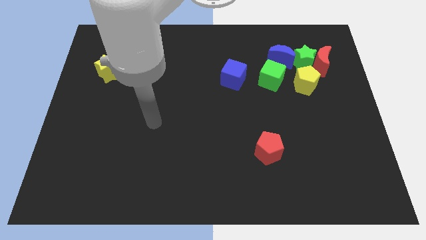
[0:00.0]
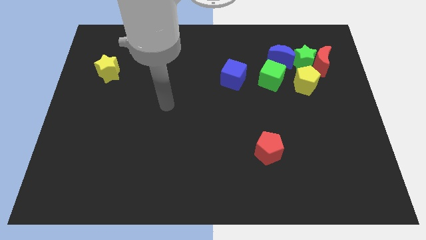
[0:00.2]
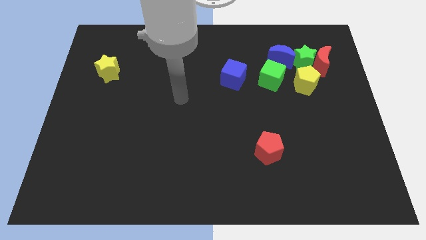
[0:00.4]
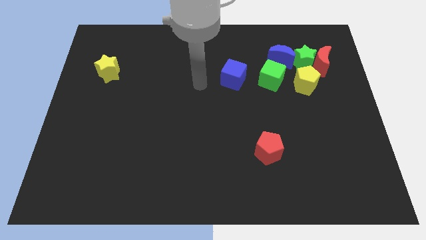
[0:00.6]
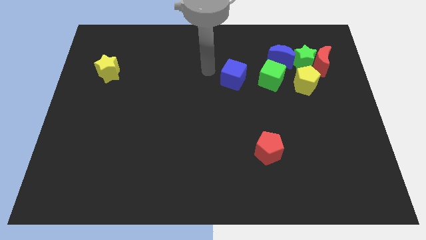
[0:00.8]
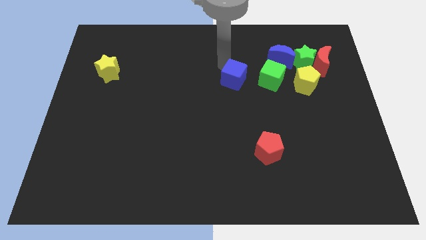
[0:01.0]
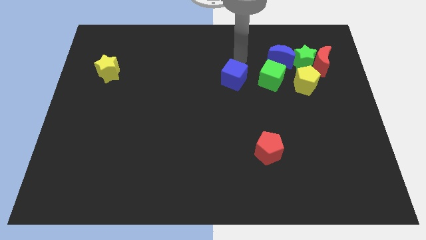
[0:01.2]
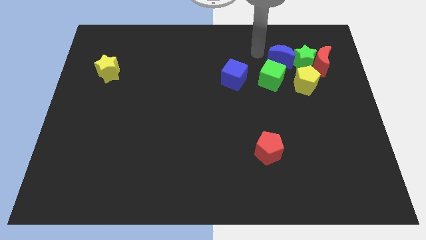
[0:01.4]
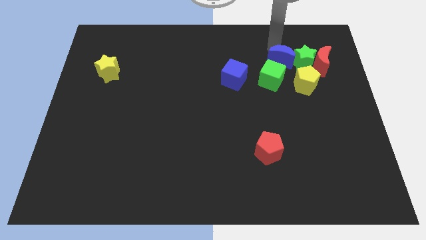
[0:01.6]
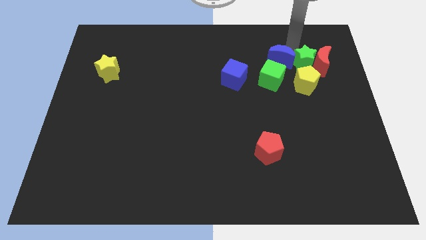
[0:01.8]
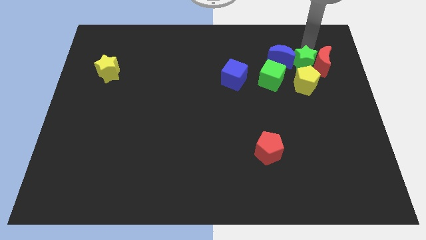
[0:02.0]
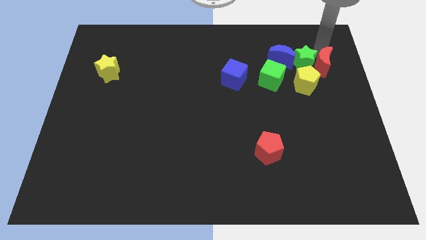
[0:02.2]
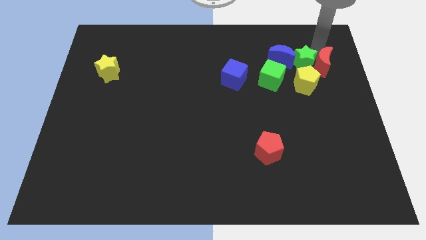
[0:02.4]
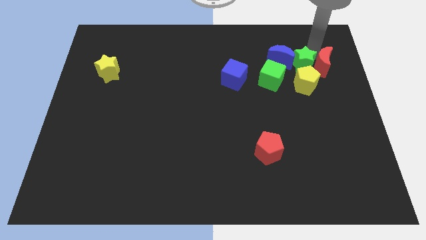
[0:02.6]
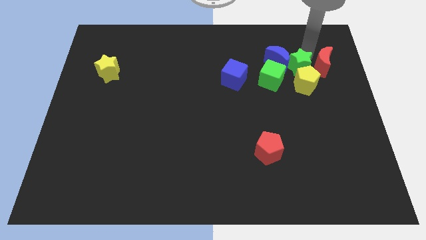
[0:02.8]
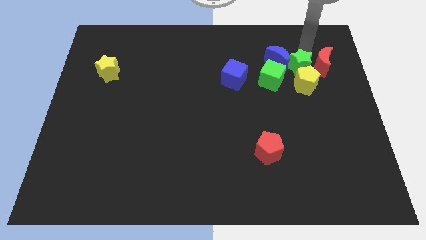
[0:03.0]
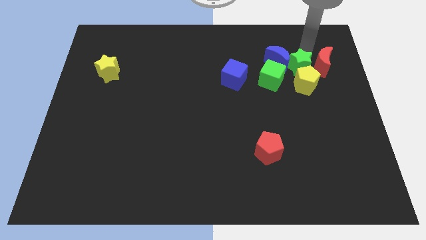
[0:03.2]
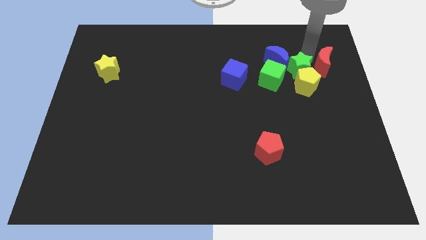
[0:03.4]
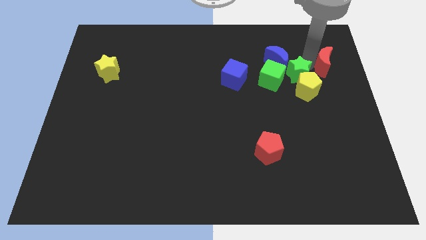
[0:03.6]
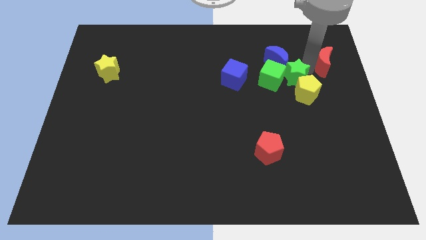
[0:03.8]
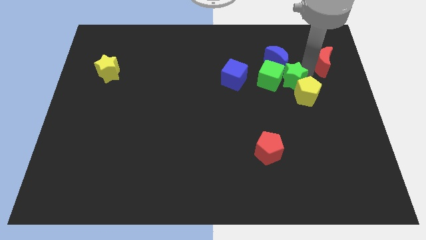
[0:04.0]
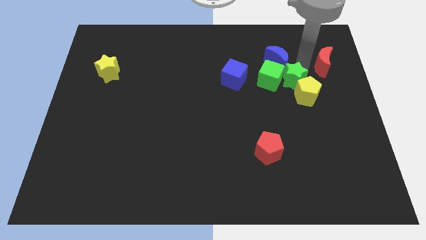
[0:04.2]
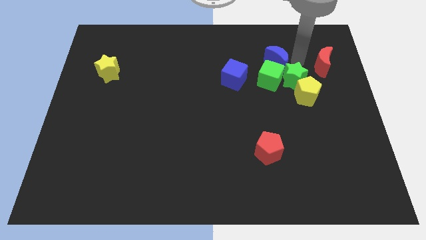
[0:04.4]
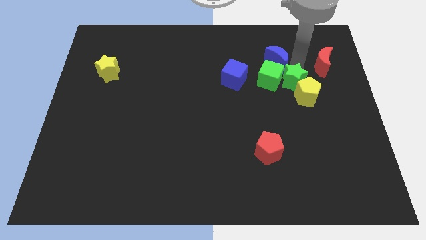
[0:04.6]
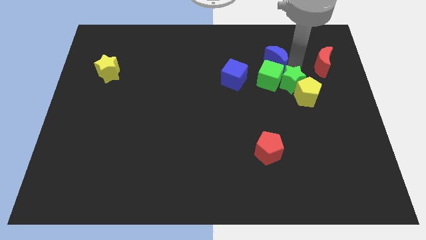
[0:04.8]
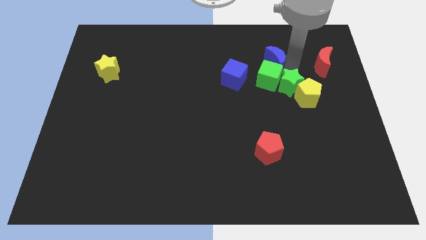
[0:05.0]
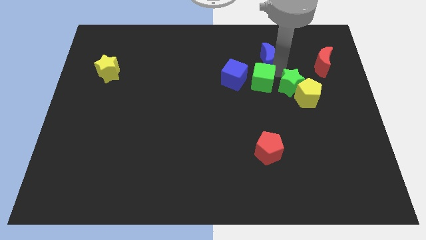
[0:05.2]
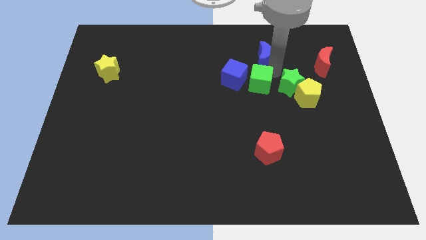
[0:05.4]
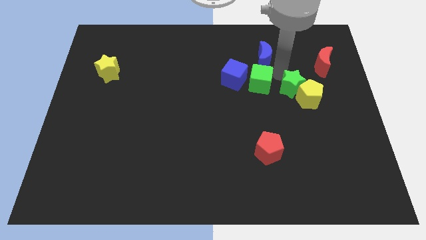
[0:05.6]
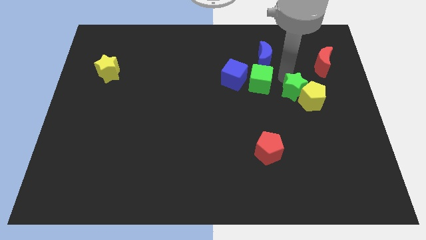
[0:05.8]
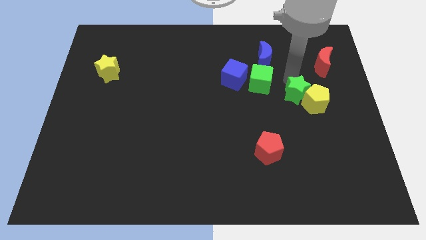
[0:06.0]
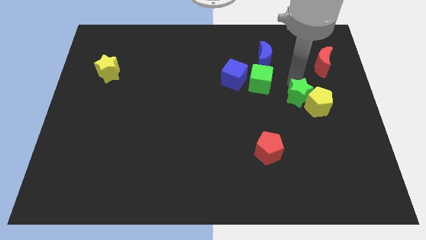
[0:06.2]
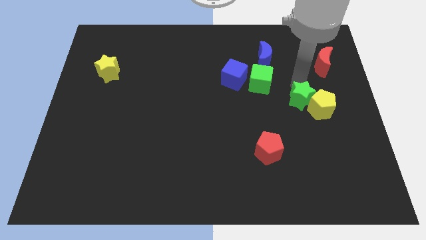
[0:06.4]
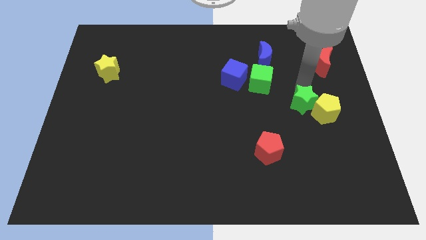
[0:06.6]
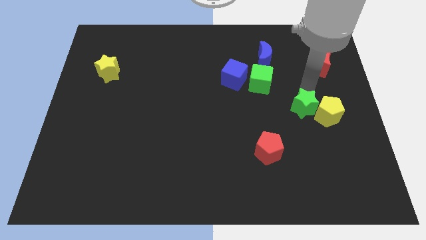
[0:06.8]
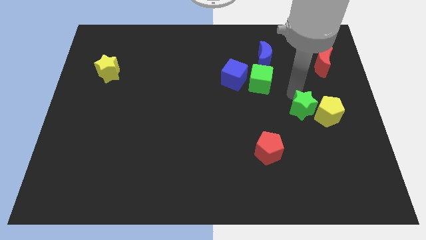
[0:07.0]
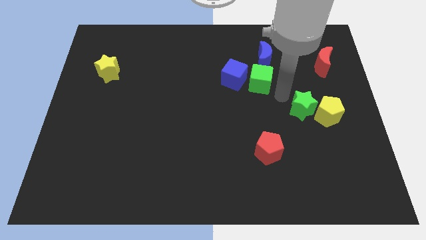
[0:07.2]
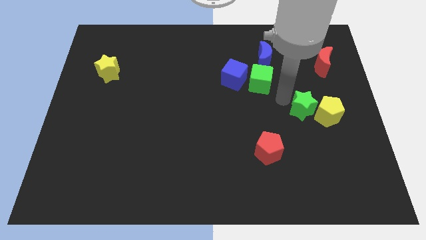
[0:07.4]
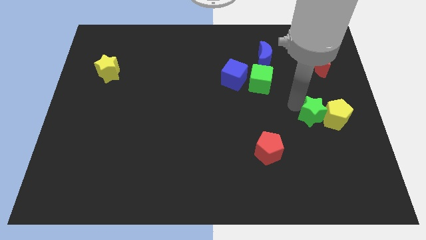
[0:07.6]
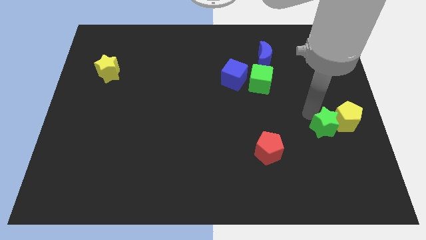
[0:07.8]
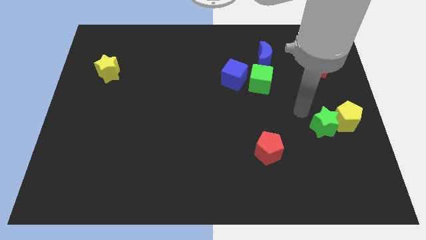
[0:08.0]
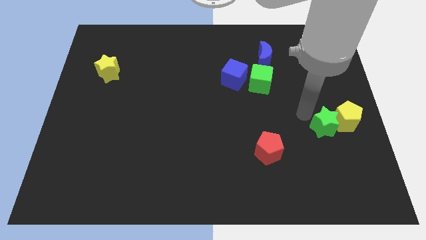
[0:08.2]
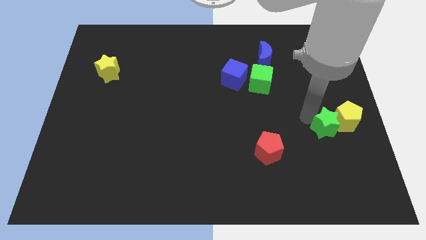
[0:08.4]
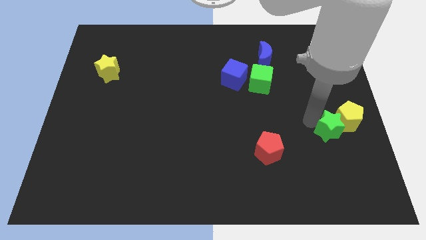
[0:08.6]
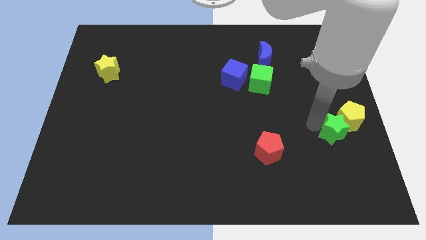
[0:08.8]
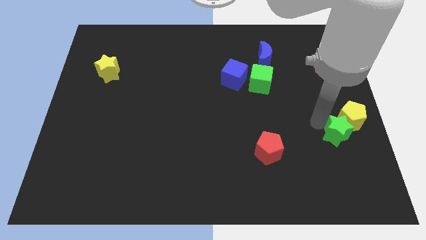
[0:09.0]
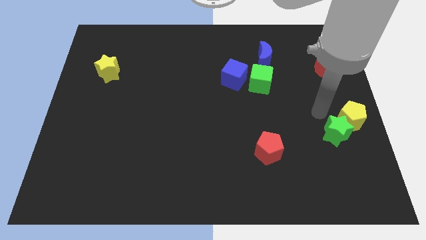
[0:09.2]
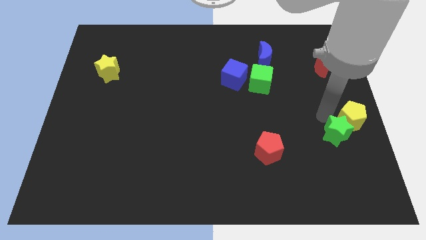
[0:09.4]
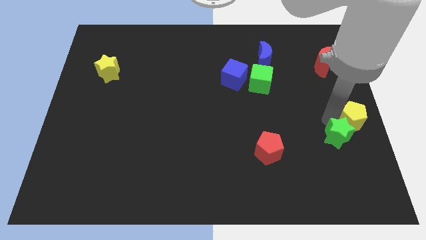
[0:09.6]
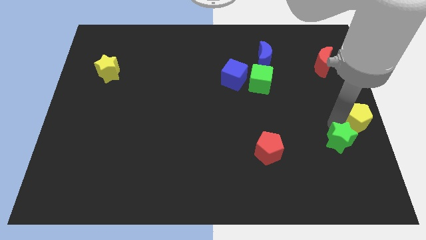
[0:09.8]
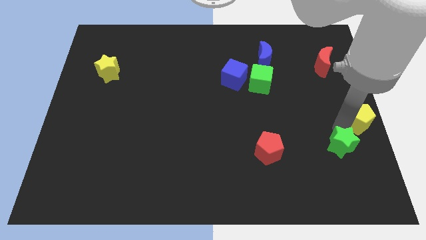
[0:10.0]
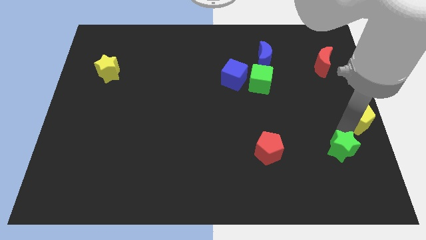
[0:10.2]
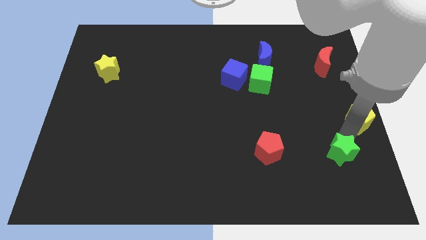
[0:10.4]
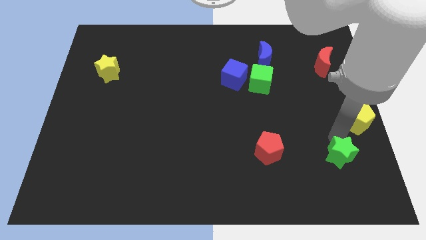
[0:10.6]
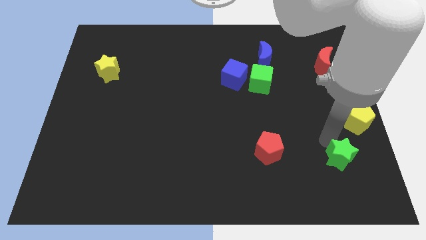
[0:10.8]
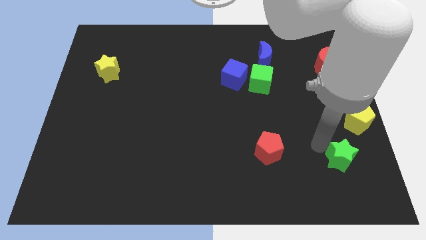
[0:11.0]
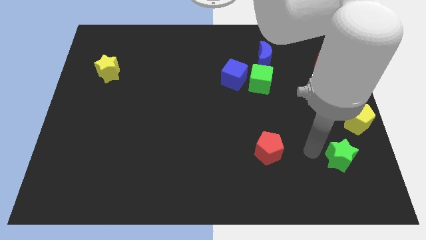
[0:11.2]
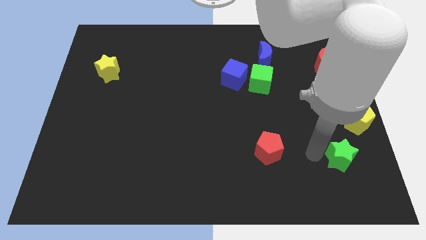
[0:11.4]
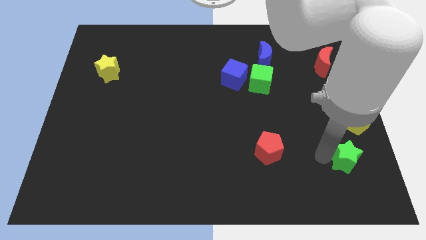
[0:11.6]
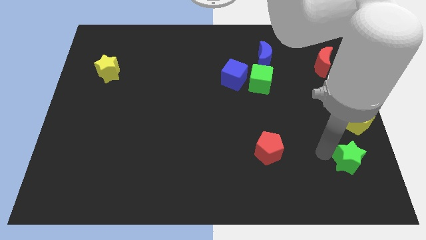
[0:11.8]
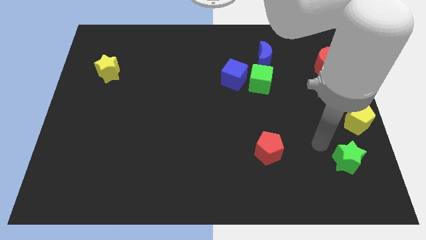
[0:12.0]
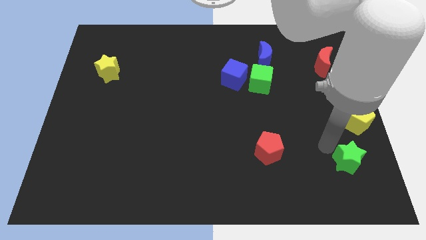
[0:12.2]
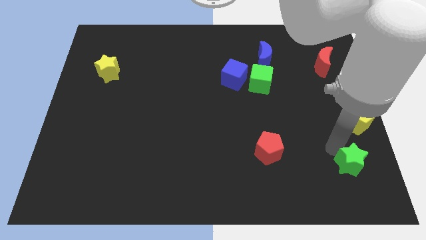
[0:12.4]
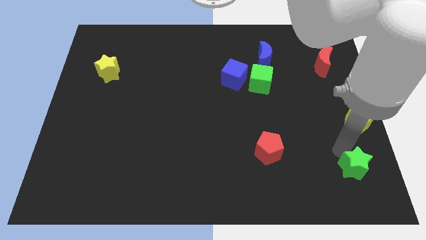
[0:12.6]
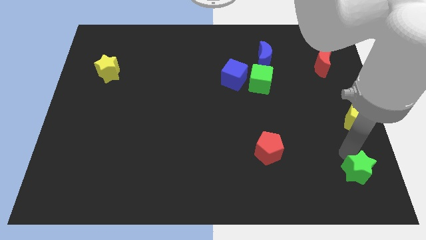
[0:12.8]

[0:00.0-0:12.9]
move the green star to the lower right corner
